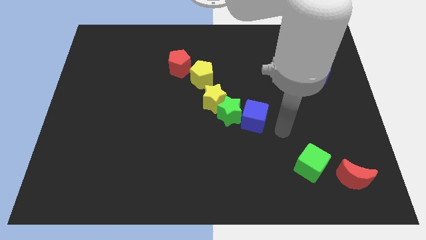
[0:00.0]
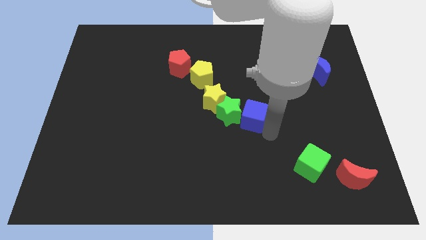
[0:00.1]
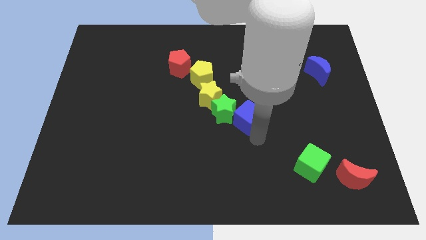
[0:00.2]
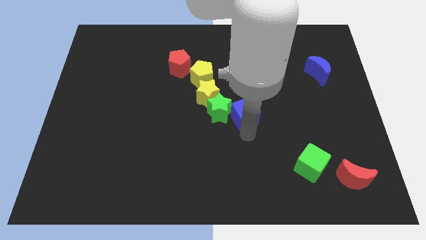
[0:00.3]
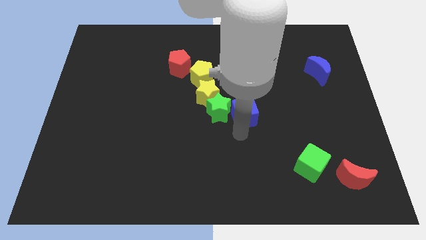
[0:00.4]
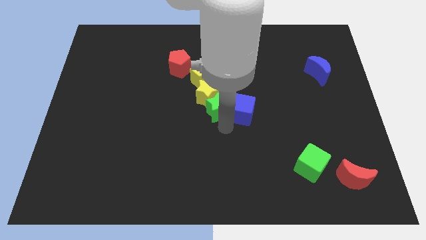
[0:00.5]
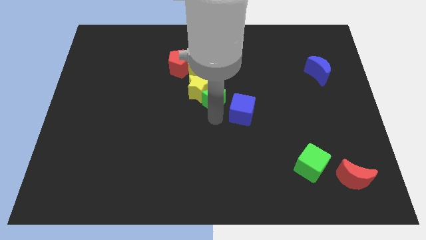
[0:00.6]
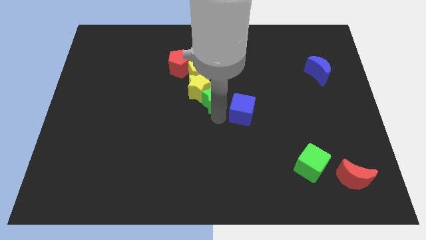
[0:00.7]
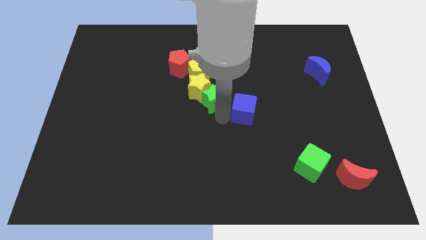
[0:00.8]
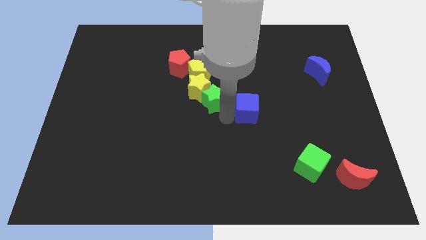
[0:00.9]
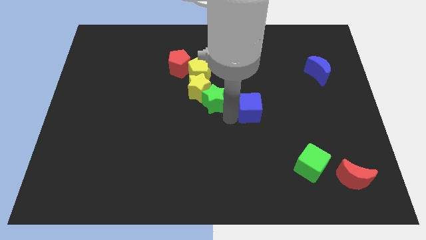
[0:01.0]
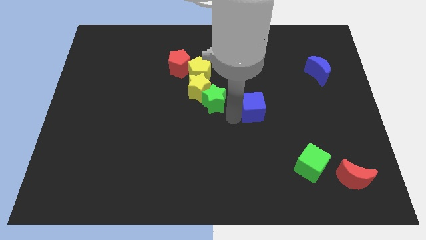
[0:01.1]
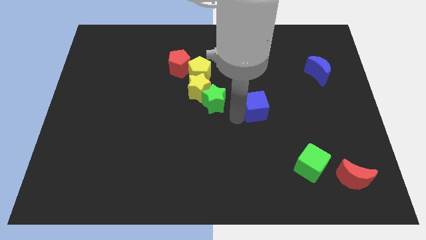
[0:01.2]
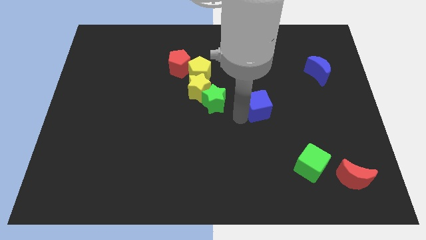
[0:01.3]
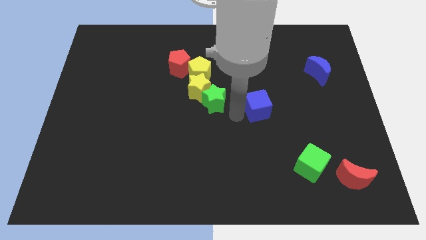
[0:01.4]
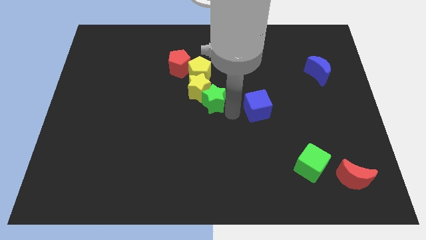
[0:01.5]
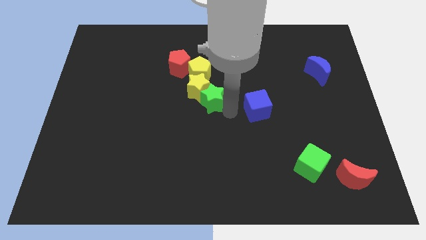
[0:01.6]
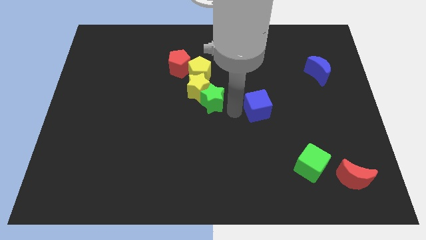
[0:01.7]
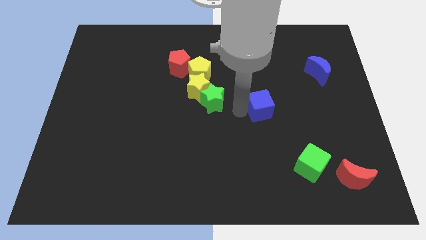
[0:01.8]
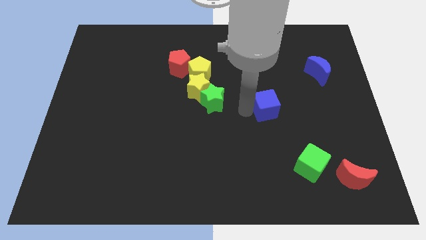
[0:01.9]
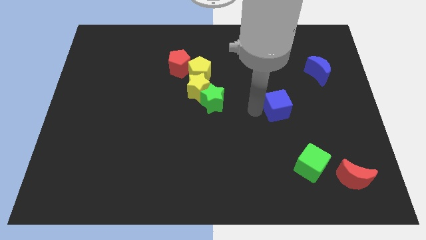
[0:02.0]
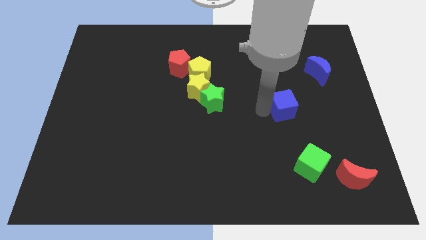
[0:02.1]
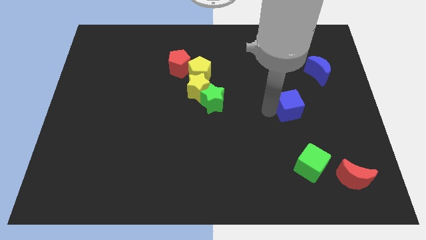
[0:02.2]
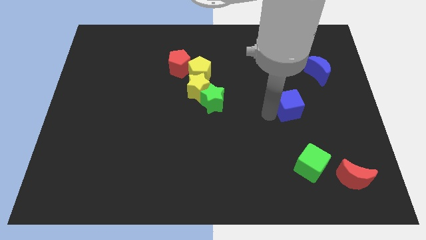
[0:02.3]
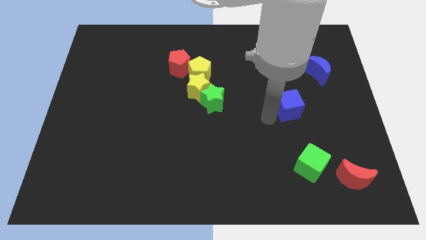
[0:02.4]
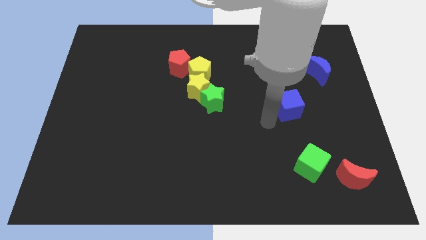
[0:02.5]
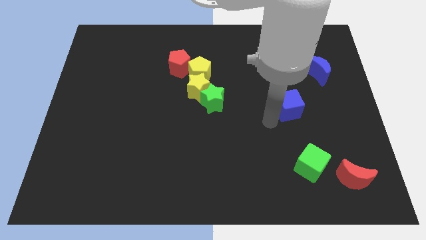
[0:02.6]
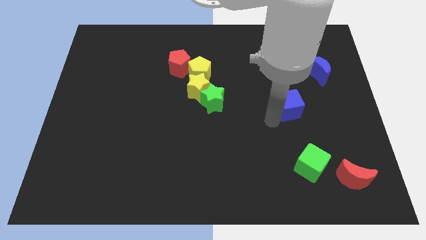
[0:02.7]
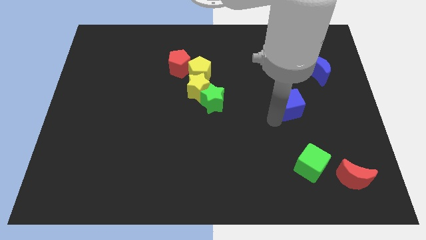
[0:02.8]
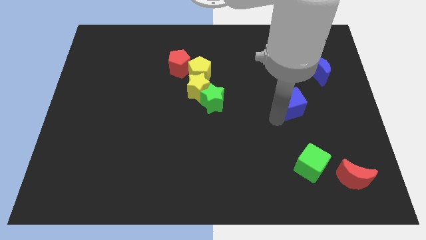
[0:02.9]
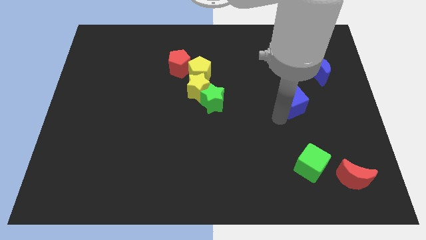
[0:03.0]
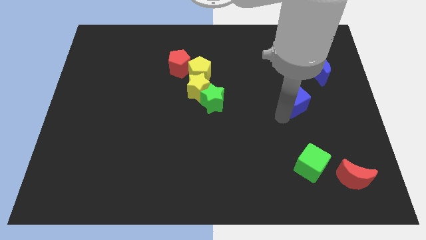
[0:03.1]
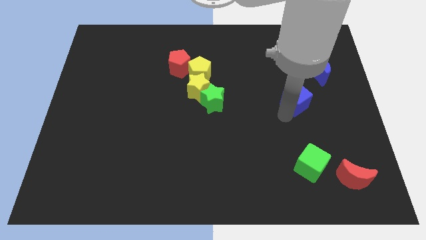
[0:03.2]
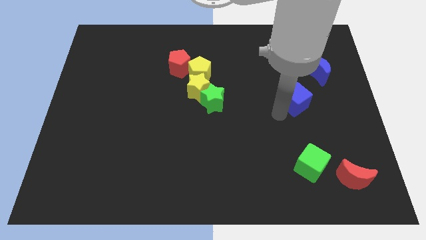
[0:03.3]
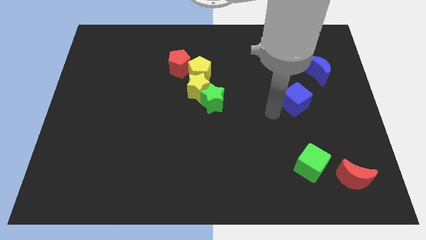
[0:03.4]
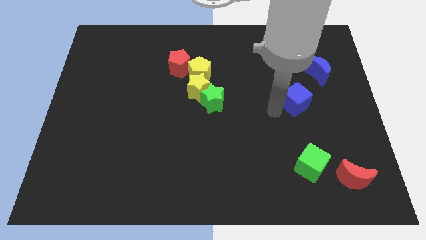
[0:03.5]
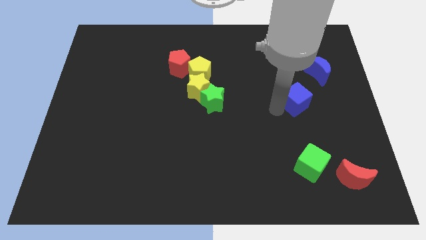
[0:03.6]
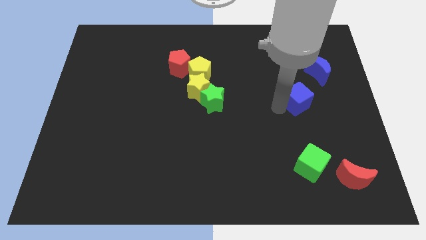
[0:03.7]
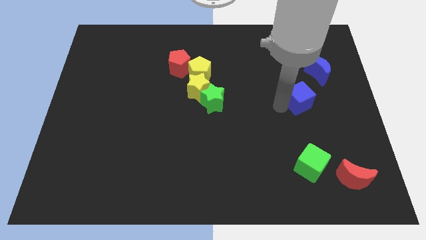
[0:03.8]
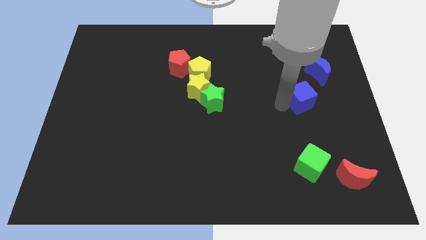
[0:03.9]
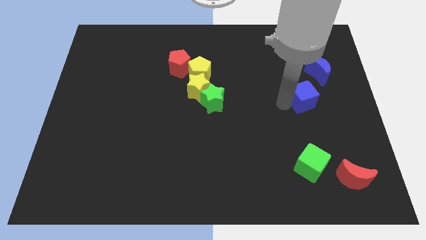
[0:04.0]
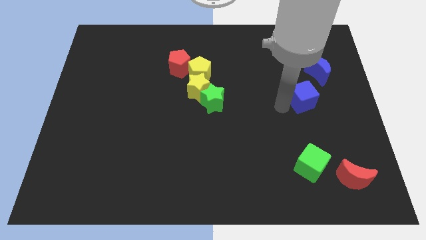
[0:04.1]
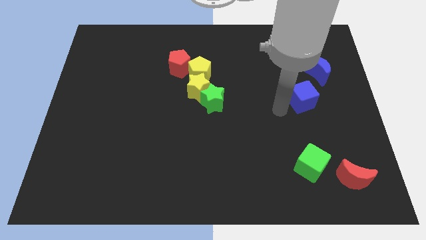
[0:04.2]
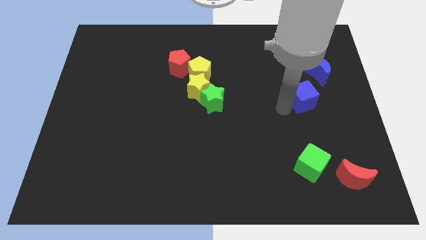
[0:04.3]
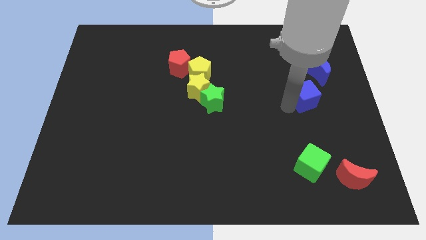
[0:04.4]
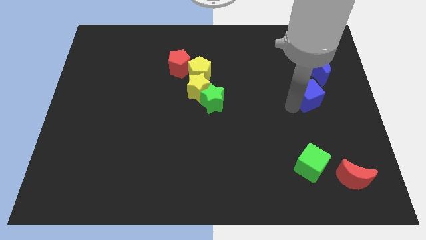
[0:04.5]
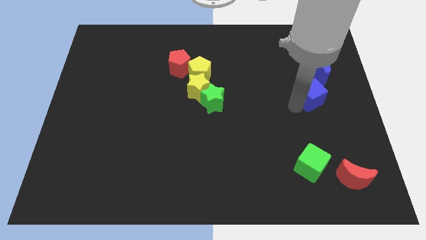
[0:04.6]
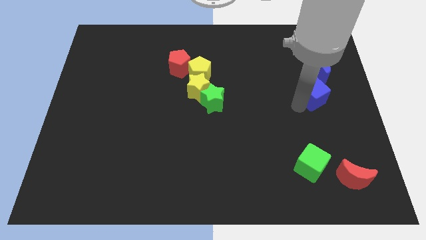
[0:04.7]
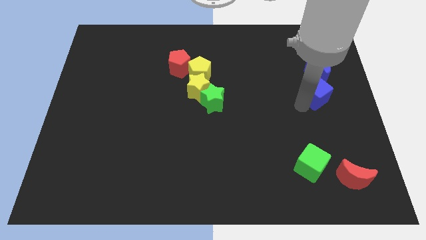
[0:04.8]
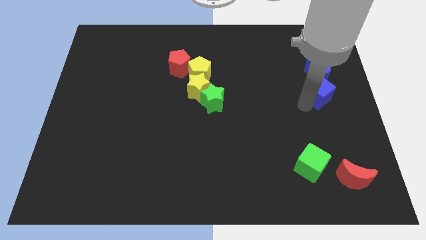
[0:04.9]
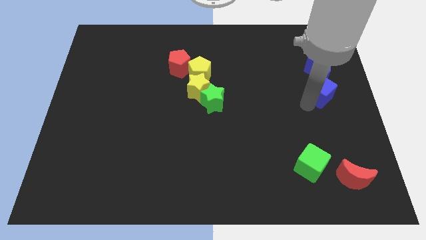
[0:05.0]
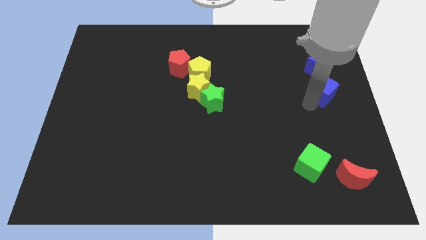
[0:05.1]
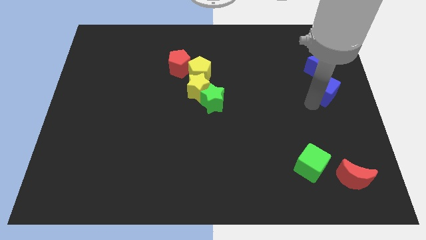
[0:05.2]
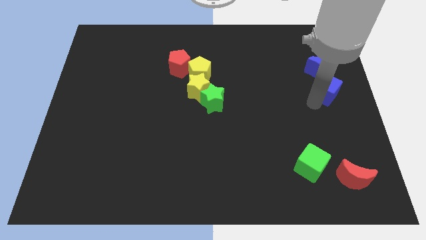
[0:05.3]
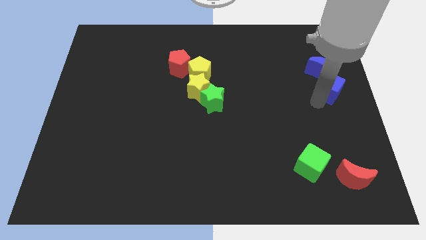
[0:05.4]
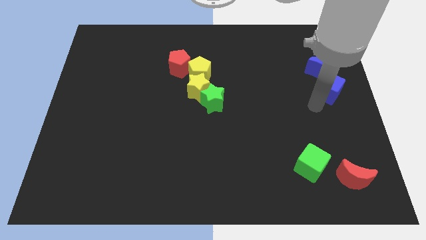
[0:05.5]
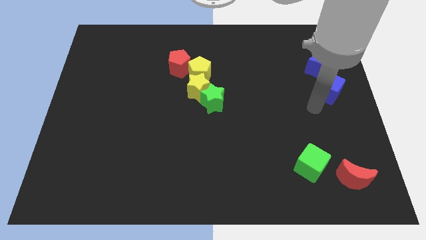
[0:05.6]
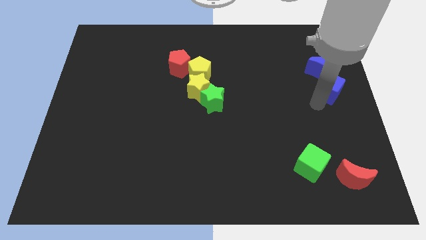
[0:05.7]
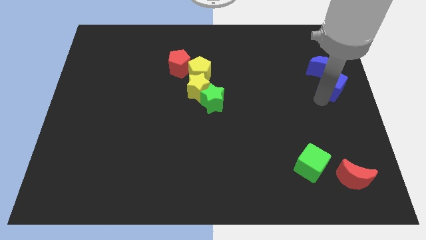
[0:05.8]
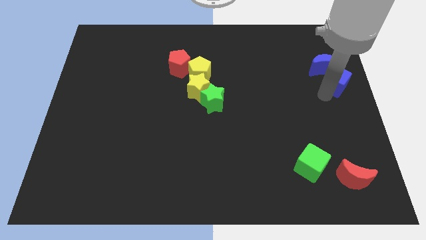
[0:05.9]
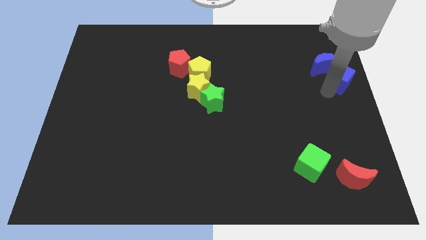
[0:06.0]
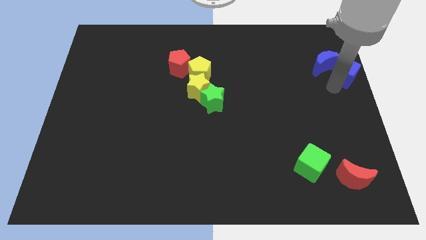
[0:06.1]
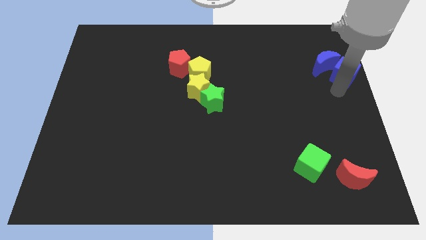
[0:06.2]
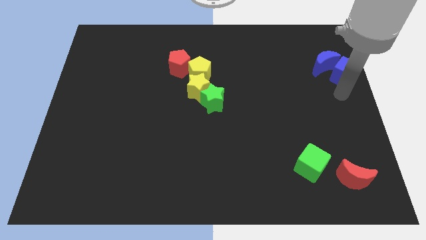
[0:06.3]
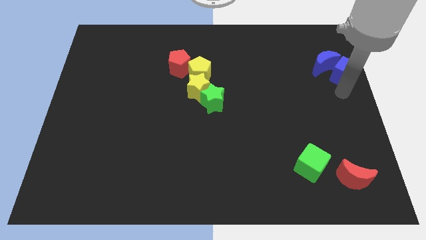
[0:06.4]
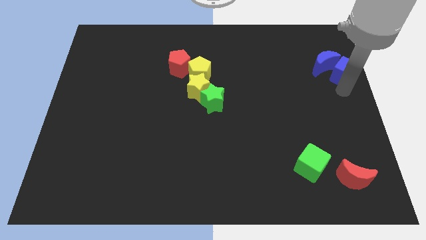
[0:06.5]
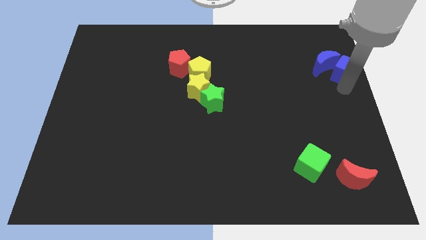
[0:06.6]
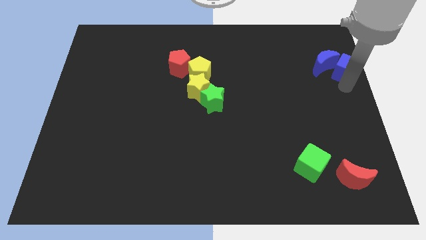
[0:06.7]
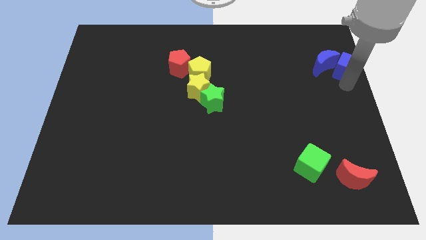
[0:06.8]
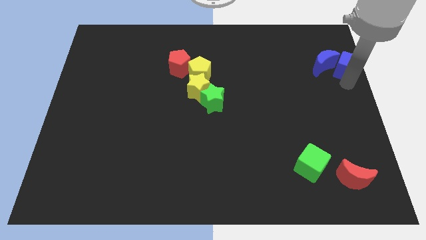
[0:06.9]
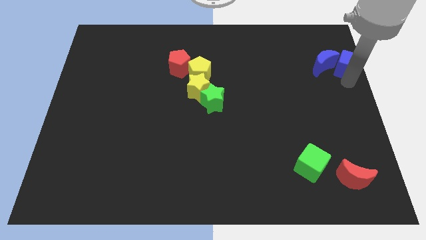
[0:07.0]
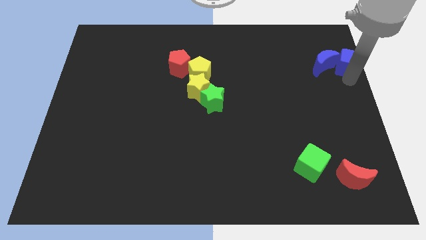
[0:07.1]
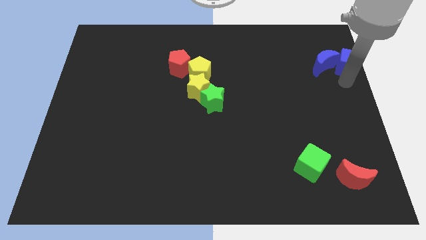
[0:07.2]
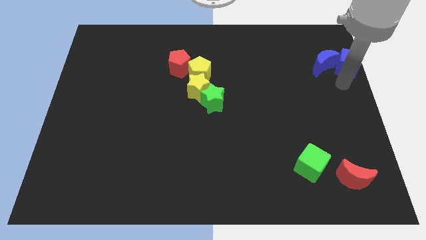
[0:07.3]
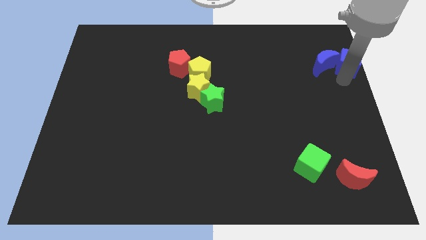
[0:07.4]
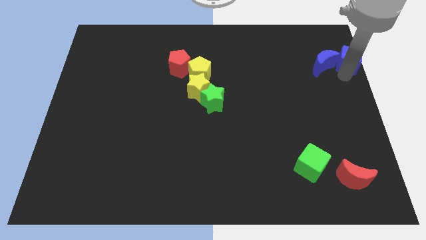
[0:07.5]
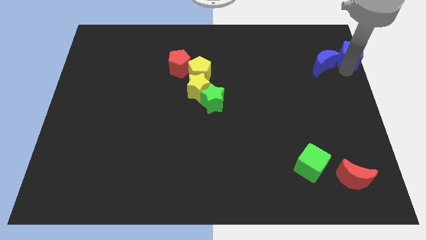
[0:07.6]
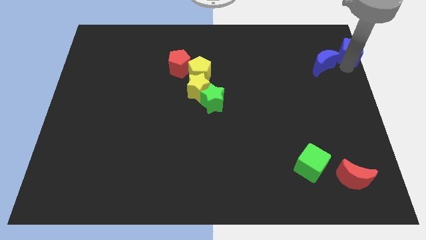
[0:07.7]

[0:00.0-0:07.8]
put the blue cube to the upper right corner
